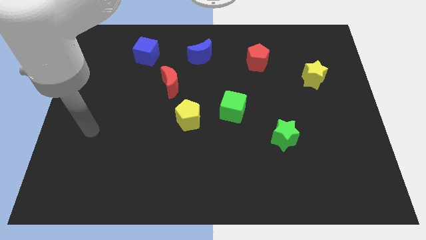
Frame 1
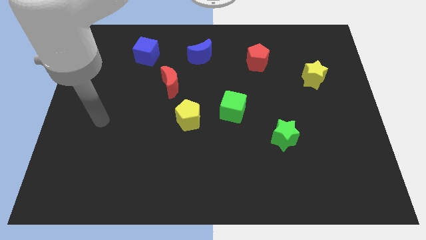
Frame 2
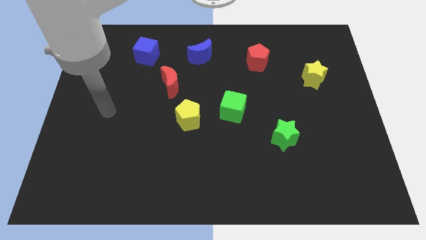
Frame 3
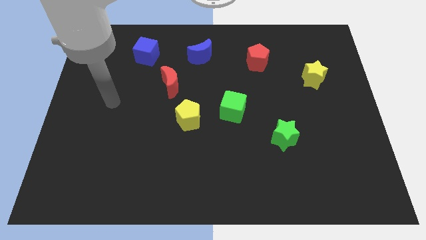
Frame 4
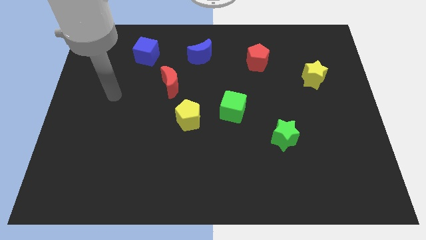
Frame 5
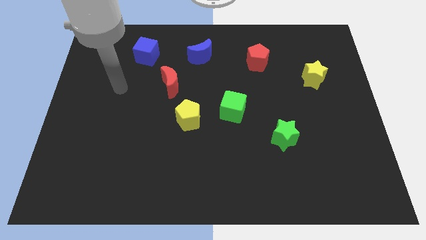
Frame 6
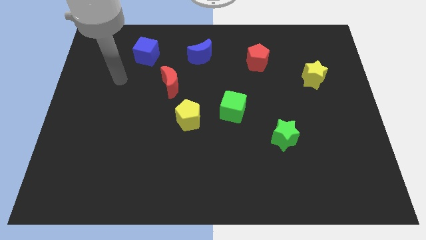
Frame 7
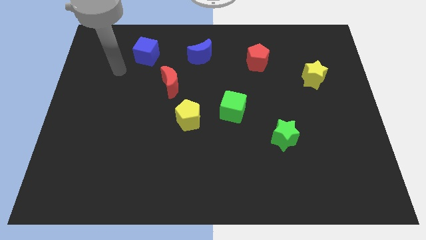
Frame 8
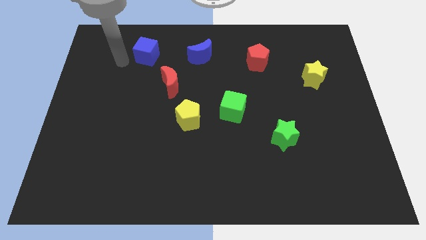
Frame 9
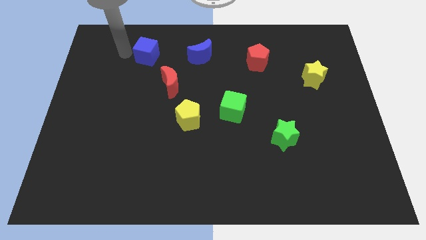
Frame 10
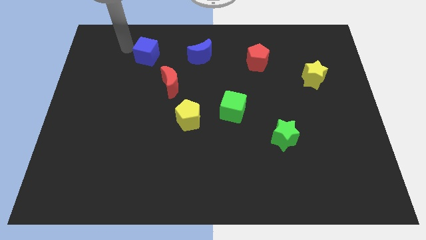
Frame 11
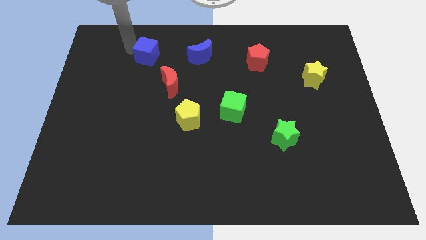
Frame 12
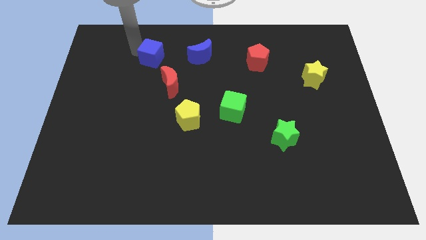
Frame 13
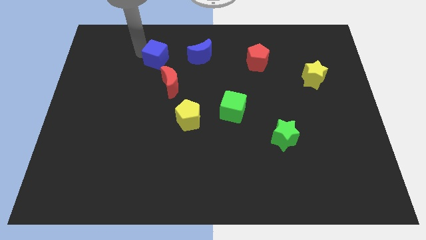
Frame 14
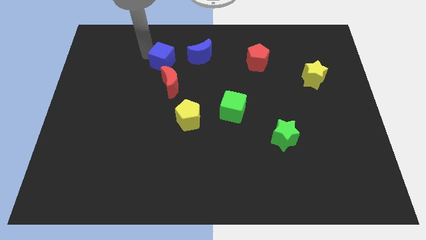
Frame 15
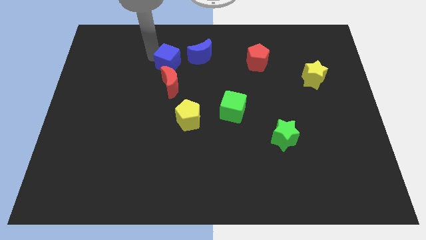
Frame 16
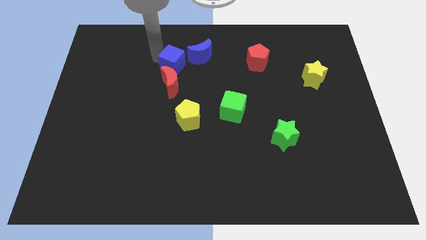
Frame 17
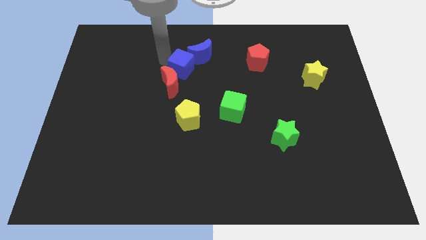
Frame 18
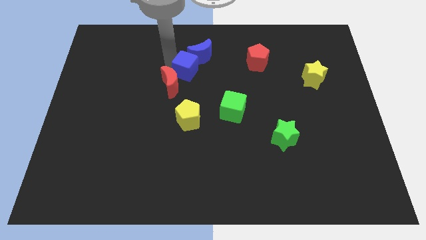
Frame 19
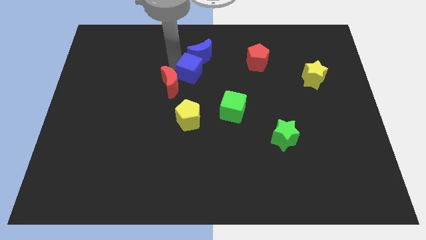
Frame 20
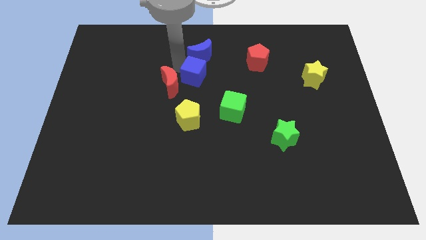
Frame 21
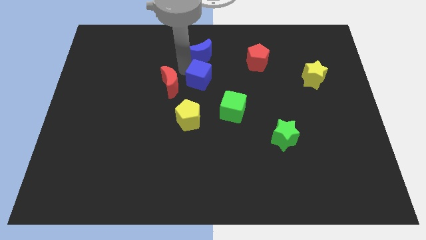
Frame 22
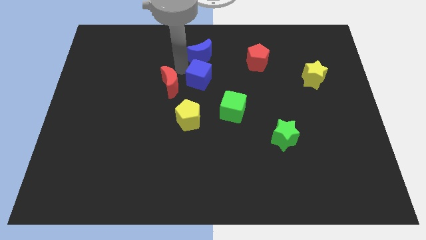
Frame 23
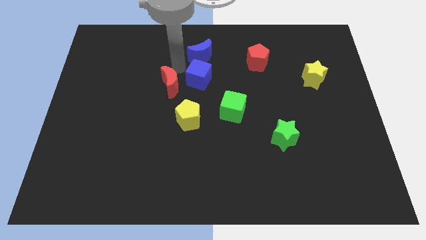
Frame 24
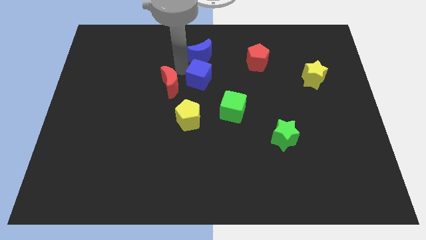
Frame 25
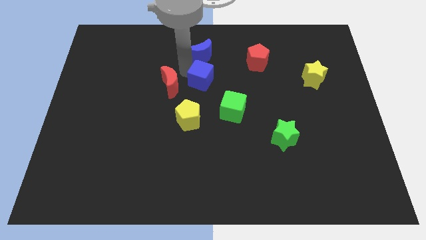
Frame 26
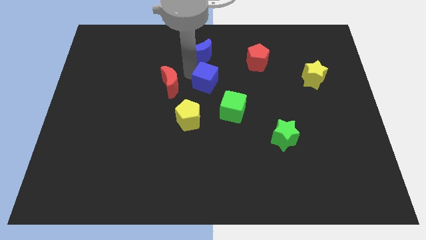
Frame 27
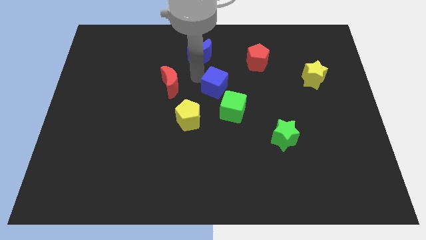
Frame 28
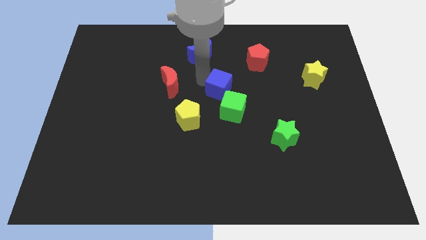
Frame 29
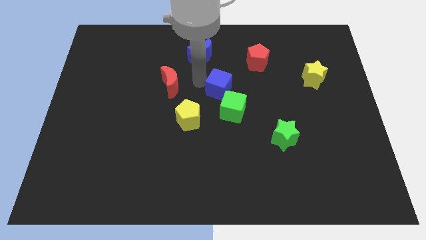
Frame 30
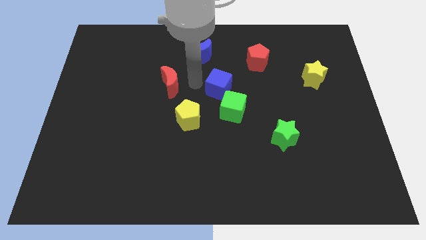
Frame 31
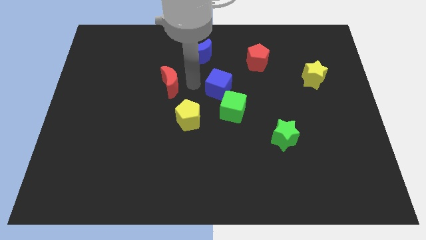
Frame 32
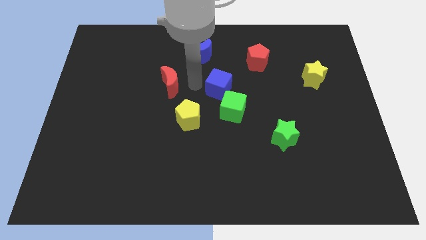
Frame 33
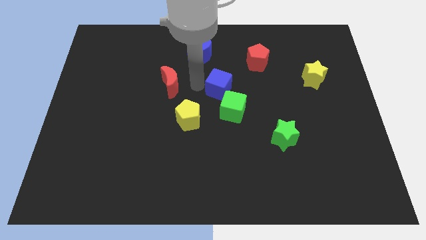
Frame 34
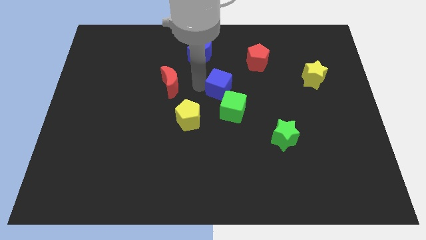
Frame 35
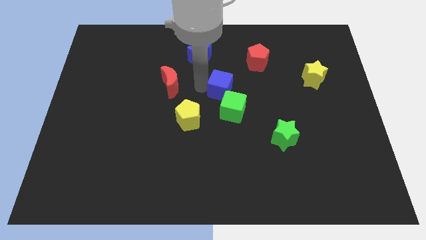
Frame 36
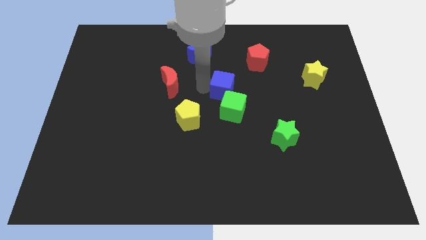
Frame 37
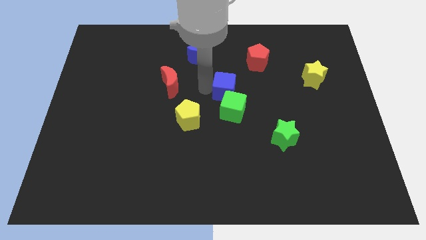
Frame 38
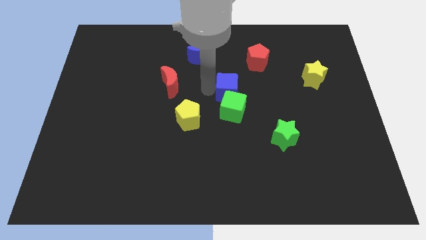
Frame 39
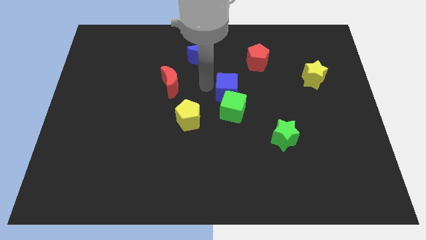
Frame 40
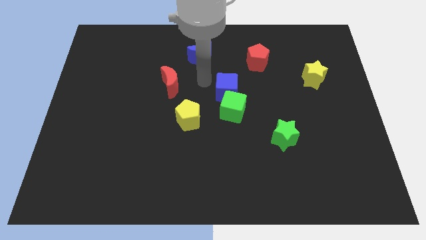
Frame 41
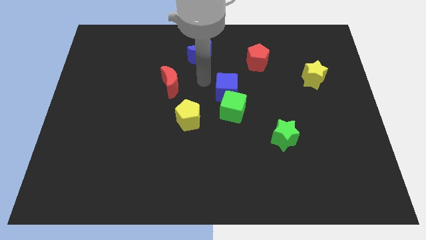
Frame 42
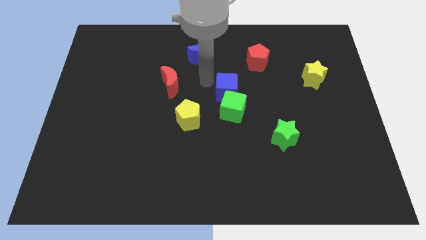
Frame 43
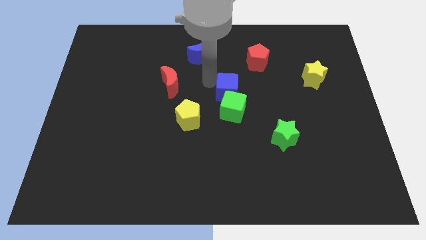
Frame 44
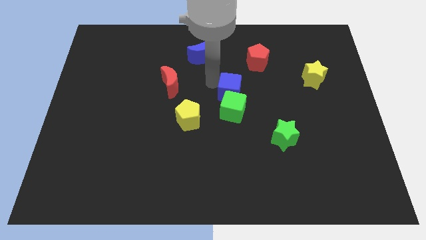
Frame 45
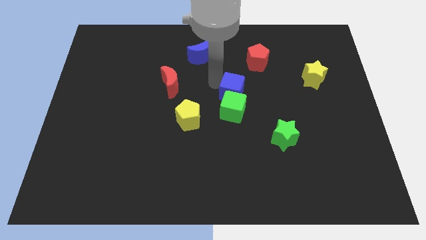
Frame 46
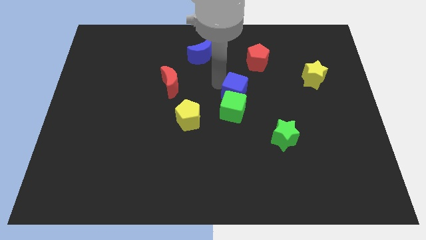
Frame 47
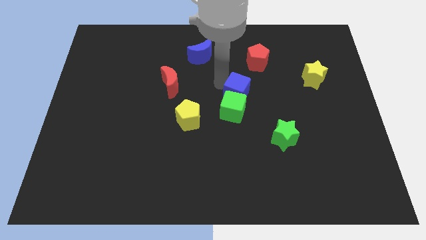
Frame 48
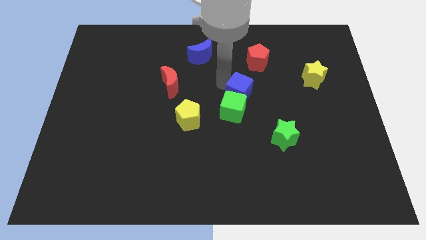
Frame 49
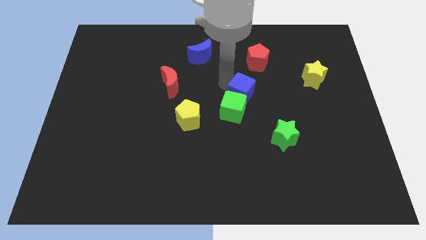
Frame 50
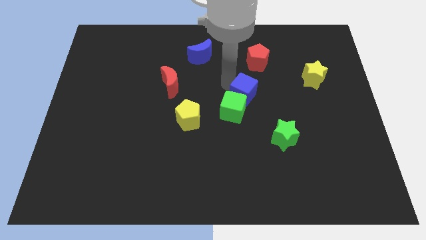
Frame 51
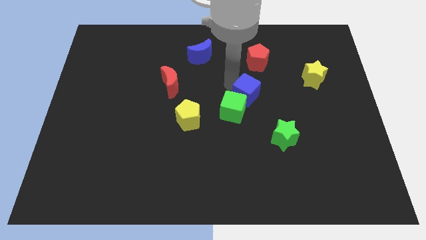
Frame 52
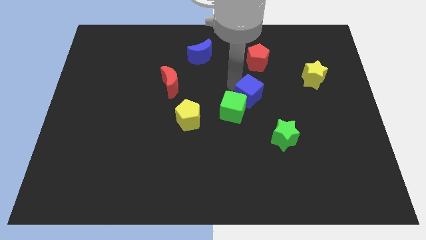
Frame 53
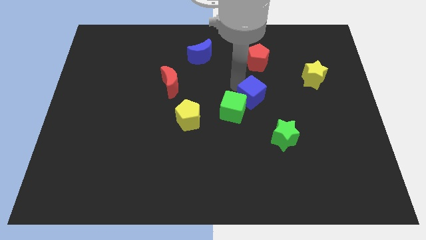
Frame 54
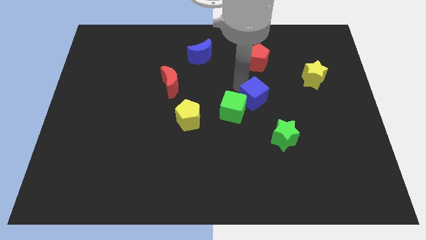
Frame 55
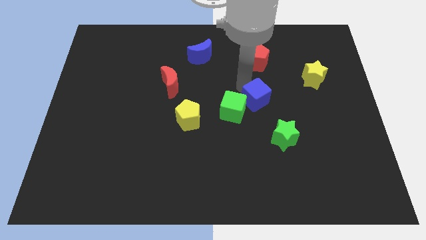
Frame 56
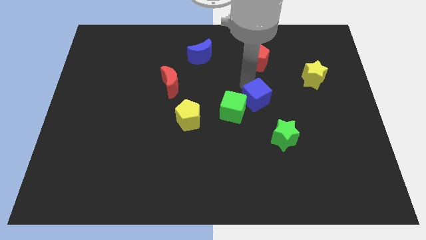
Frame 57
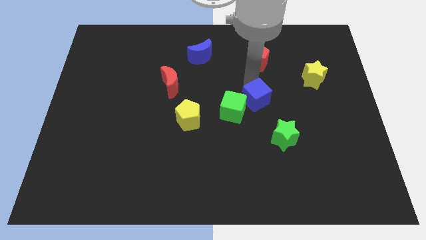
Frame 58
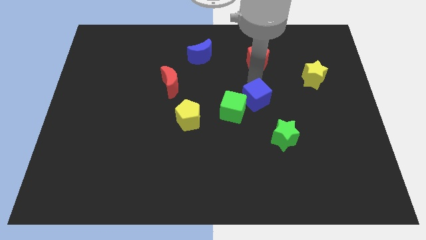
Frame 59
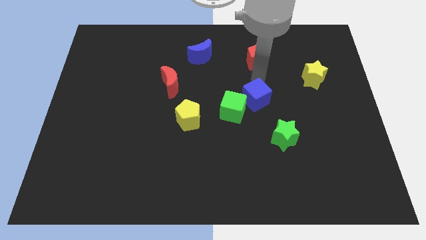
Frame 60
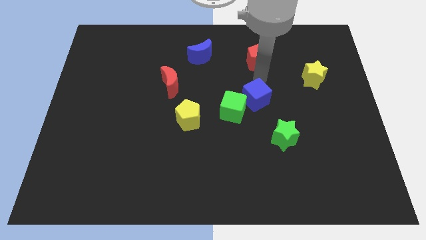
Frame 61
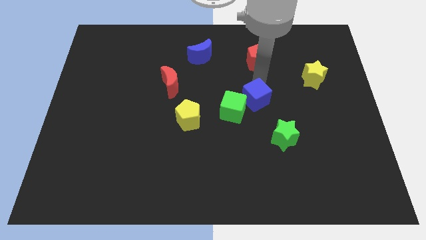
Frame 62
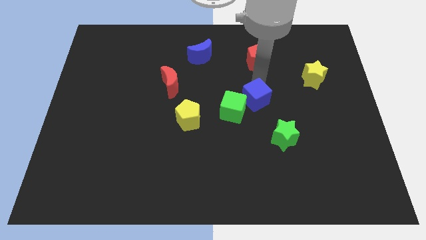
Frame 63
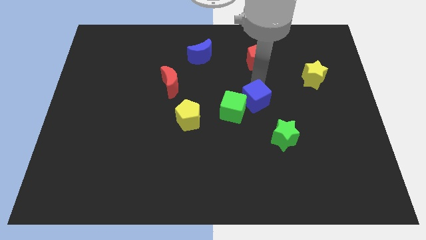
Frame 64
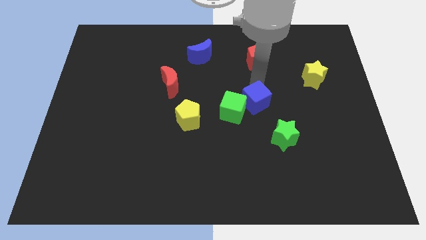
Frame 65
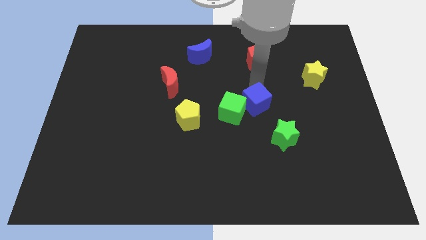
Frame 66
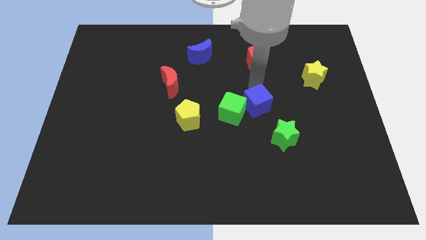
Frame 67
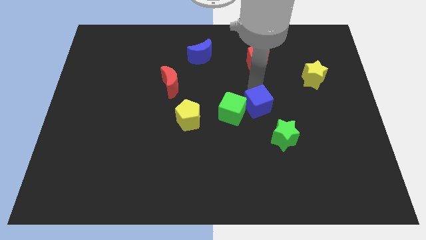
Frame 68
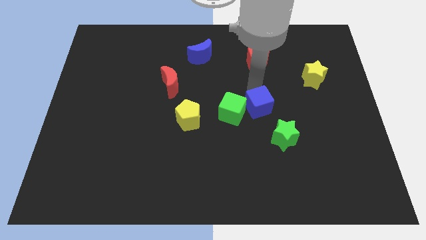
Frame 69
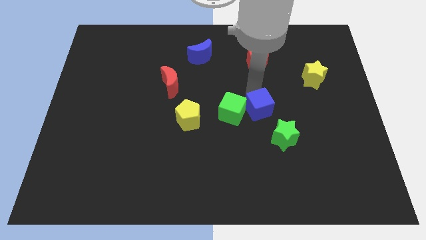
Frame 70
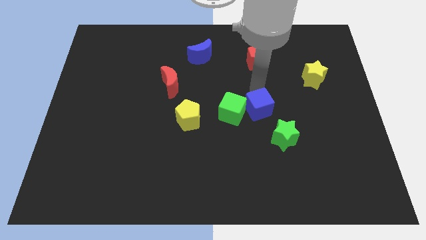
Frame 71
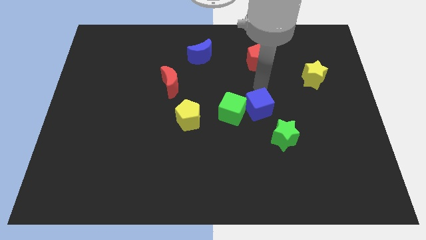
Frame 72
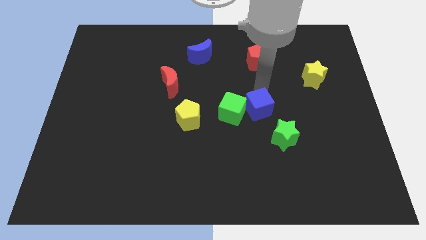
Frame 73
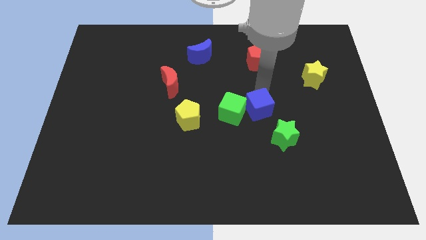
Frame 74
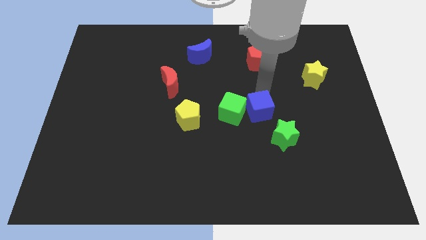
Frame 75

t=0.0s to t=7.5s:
push the blue cube to the bottom right side of the green cube

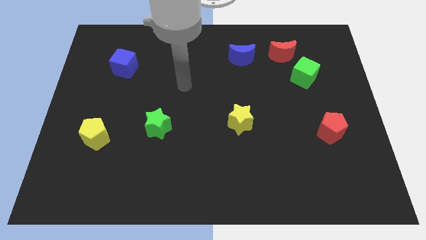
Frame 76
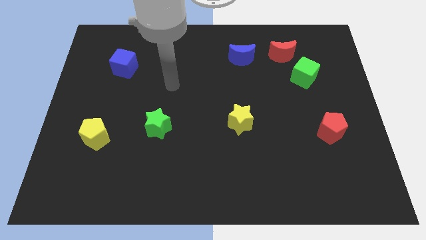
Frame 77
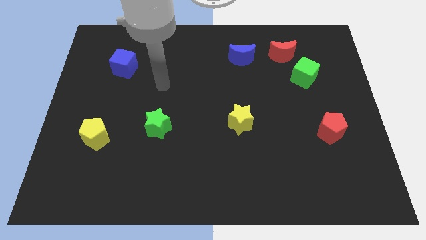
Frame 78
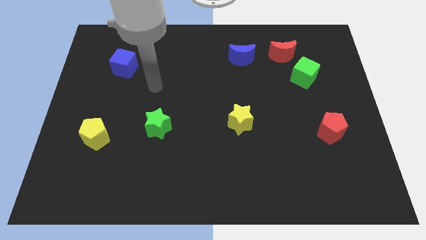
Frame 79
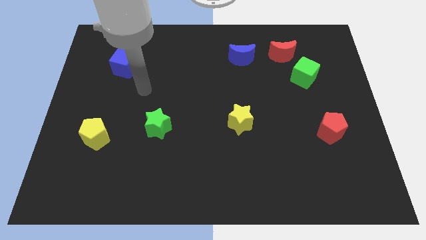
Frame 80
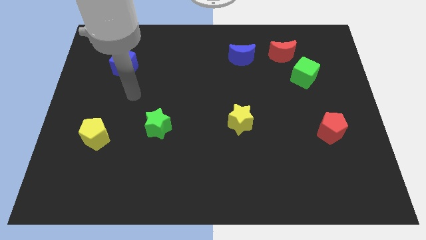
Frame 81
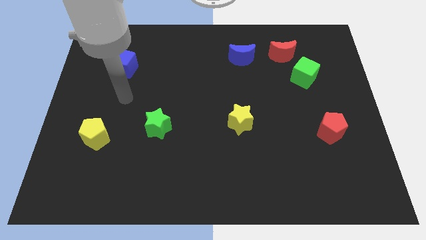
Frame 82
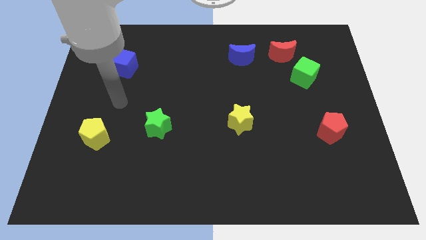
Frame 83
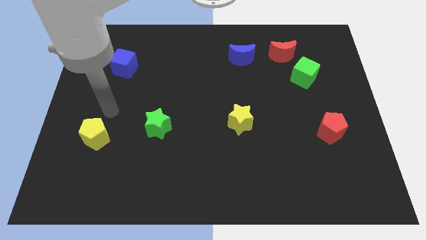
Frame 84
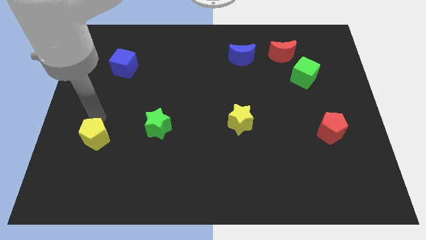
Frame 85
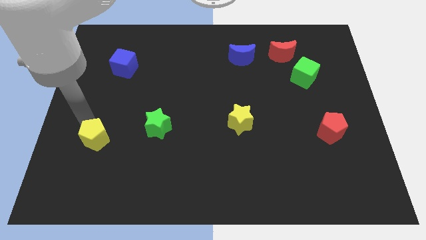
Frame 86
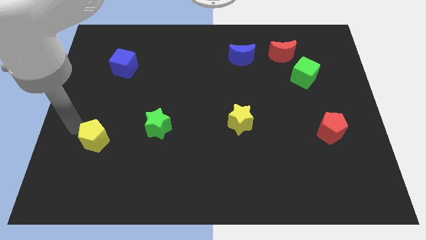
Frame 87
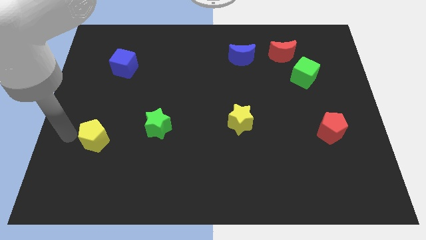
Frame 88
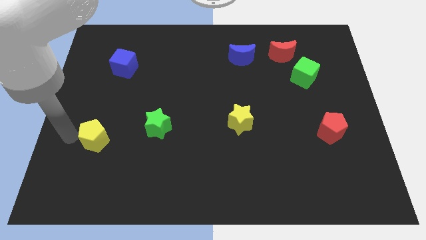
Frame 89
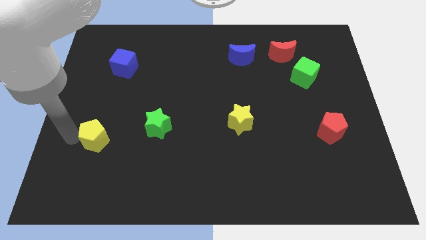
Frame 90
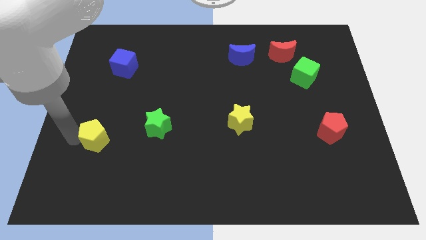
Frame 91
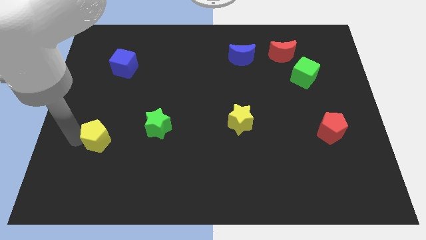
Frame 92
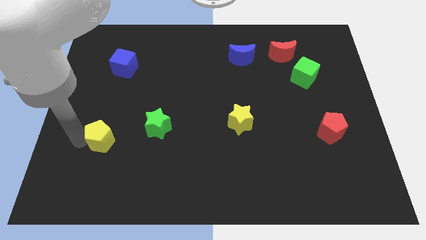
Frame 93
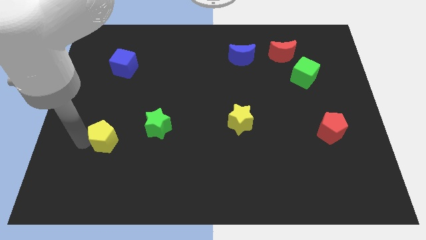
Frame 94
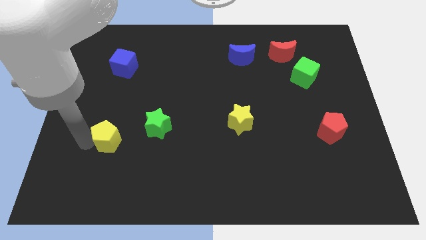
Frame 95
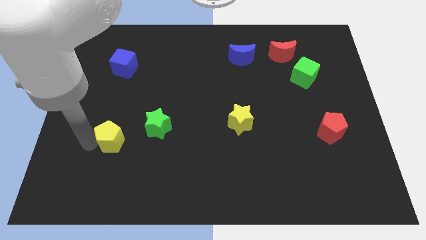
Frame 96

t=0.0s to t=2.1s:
slide the yellow pentagon to the bottom left of the green star
